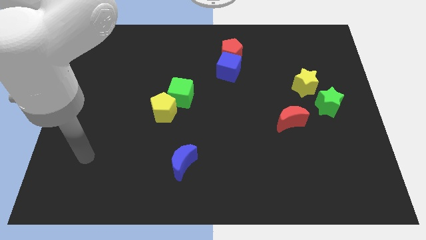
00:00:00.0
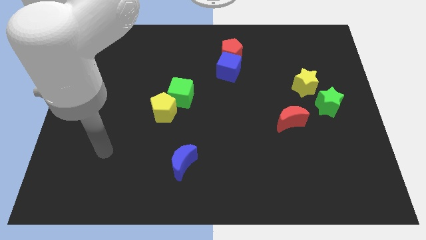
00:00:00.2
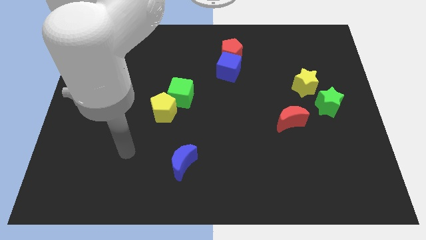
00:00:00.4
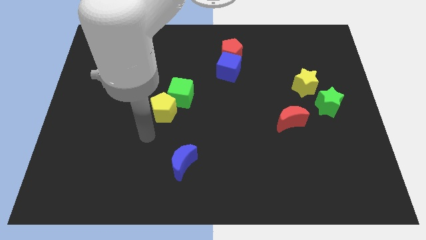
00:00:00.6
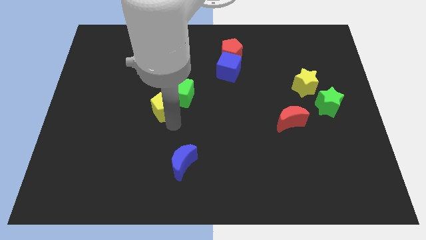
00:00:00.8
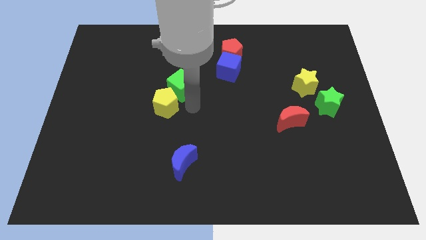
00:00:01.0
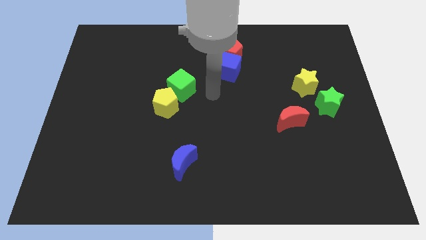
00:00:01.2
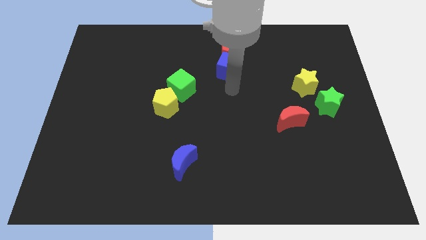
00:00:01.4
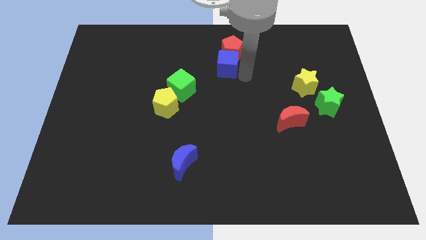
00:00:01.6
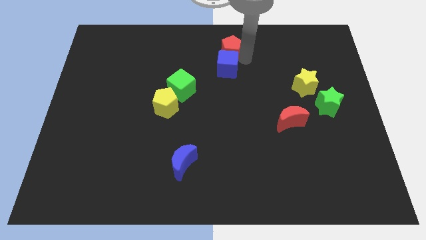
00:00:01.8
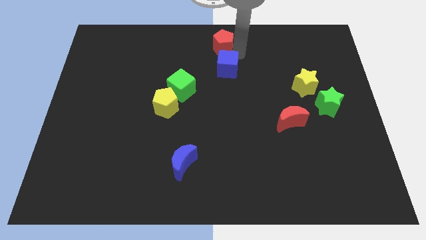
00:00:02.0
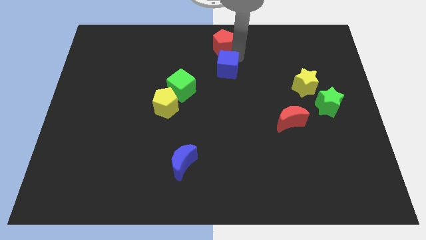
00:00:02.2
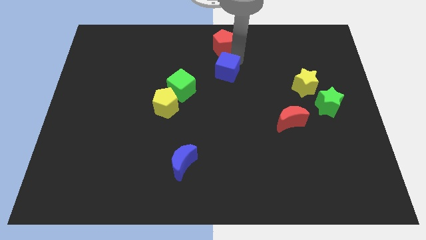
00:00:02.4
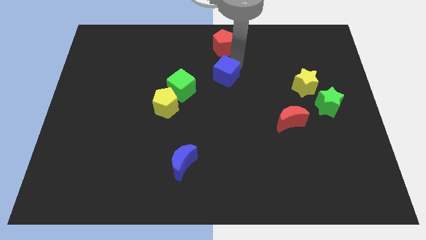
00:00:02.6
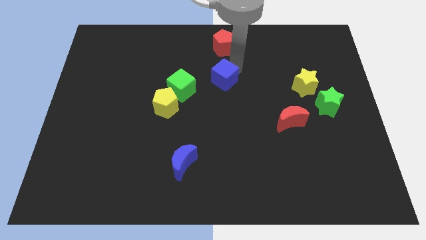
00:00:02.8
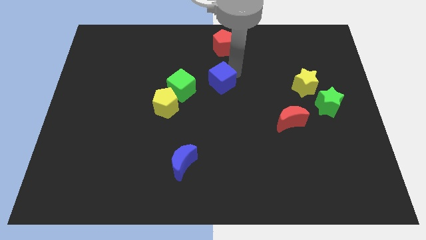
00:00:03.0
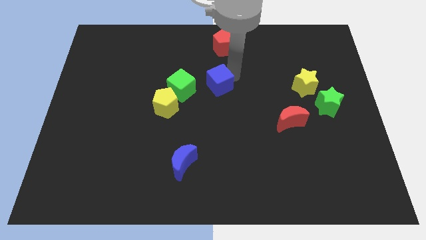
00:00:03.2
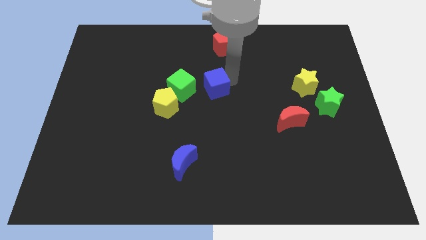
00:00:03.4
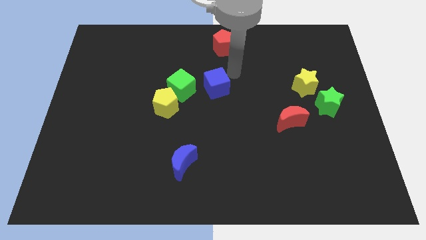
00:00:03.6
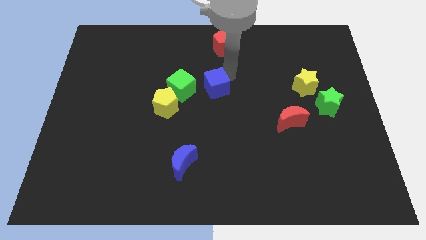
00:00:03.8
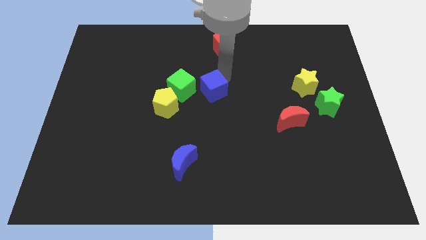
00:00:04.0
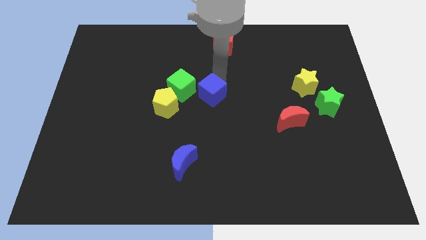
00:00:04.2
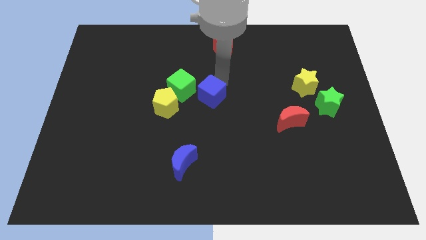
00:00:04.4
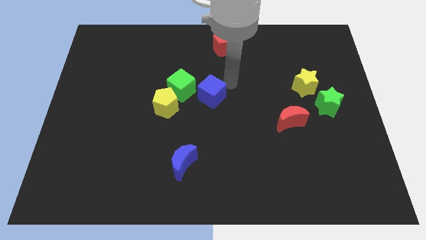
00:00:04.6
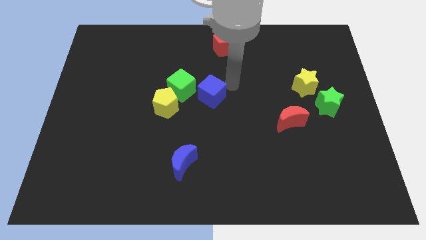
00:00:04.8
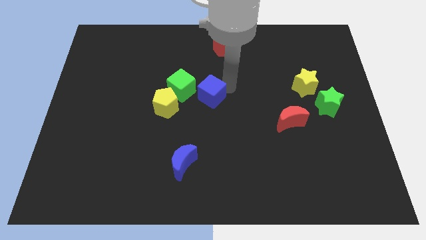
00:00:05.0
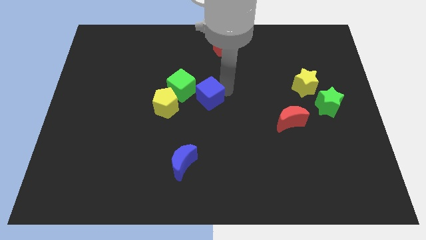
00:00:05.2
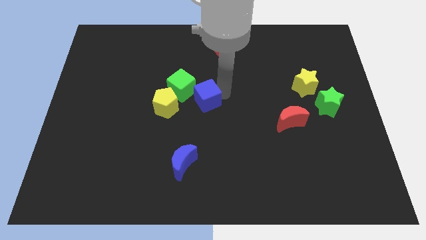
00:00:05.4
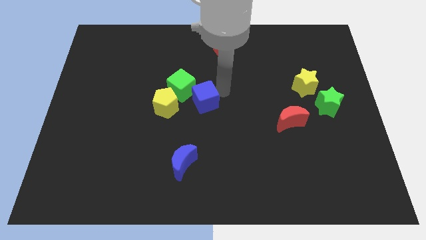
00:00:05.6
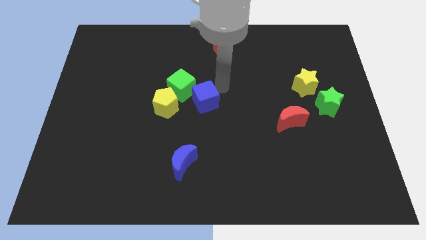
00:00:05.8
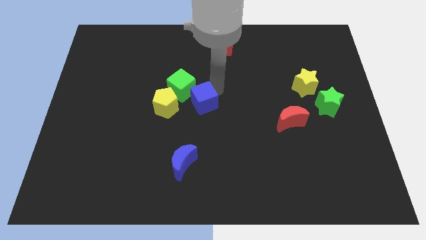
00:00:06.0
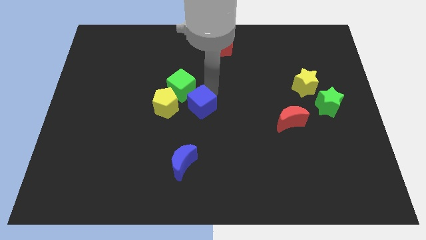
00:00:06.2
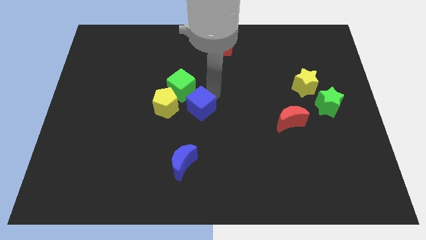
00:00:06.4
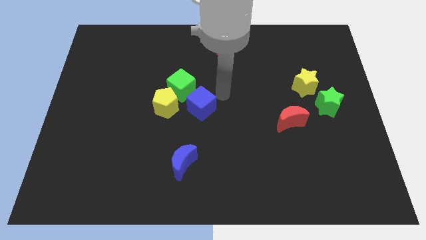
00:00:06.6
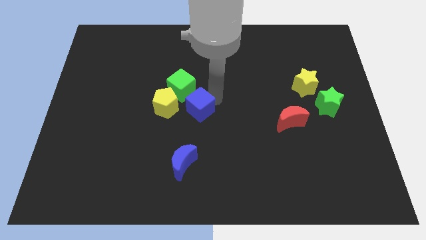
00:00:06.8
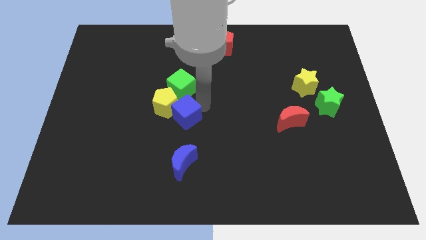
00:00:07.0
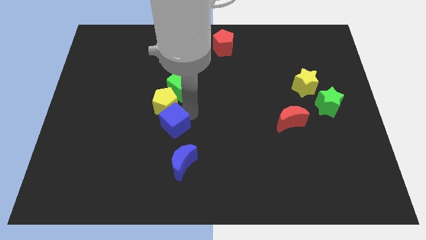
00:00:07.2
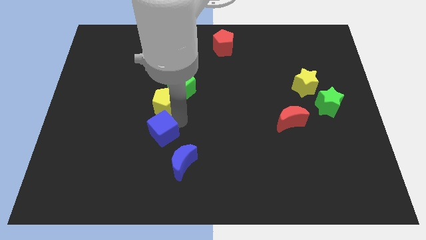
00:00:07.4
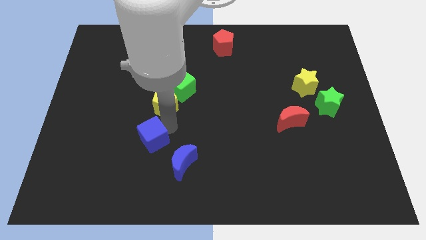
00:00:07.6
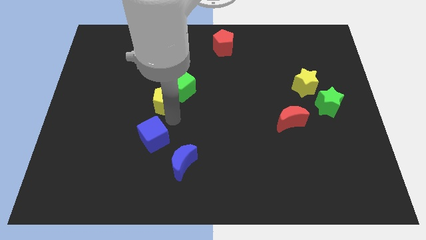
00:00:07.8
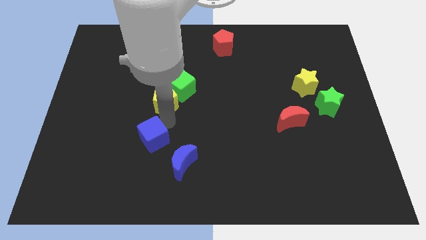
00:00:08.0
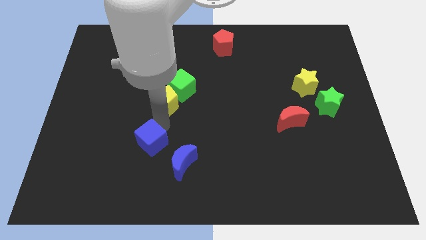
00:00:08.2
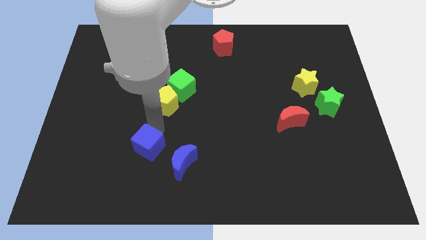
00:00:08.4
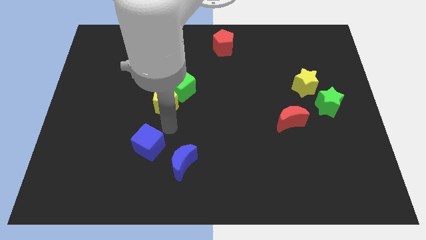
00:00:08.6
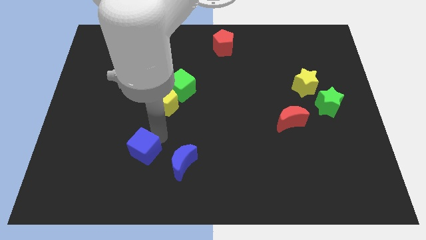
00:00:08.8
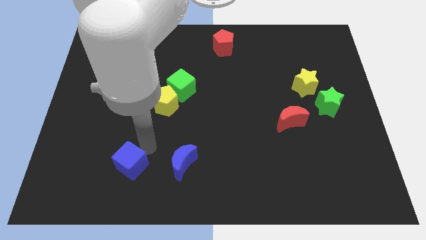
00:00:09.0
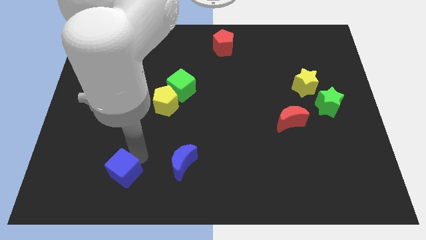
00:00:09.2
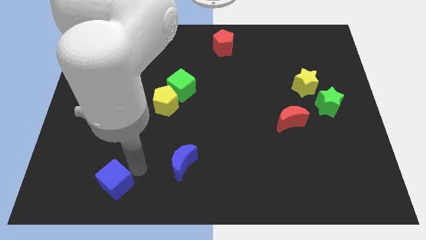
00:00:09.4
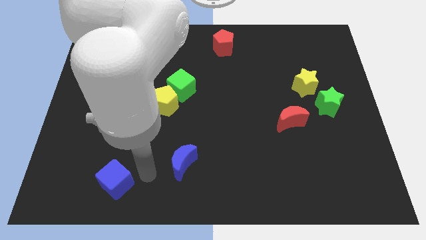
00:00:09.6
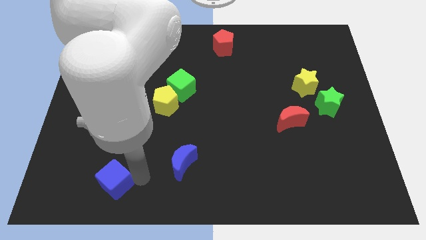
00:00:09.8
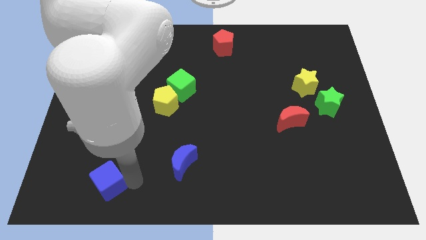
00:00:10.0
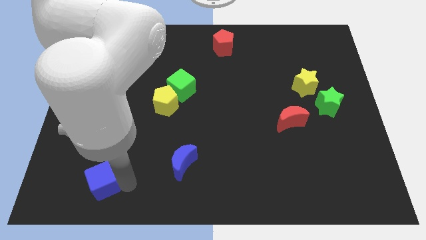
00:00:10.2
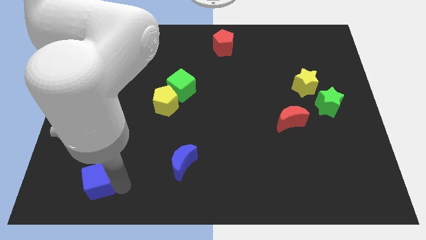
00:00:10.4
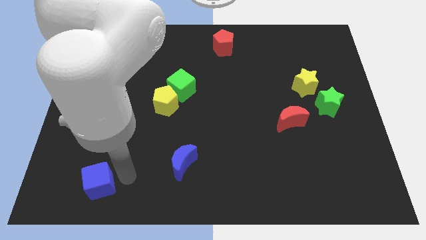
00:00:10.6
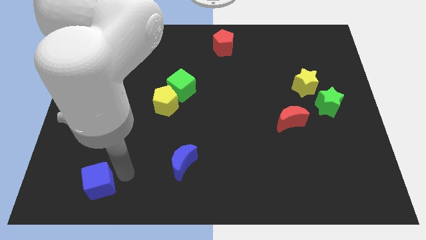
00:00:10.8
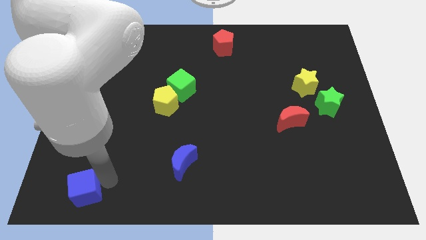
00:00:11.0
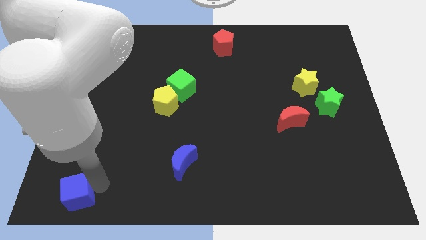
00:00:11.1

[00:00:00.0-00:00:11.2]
put the blue cube to the bottom left
